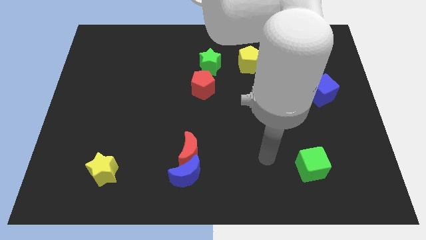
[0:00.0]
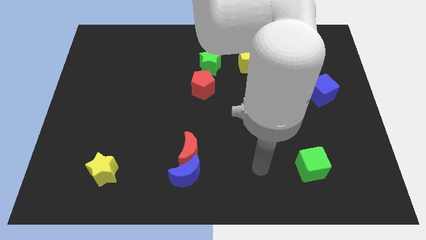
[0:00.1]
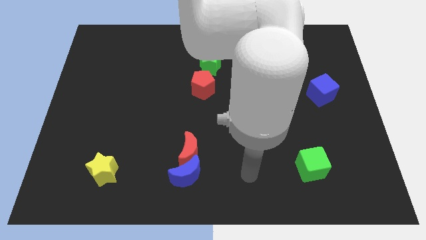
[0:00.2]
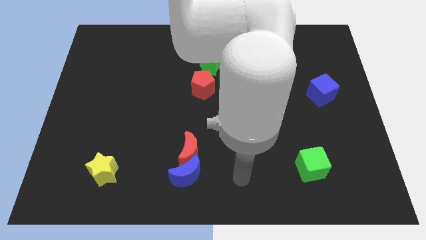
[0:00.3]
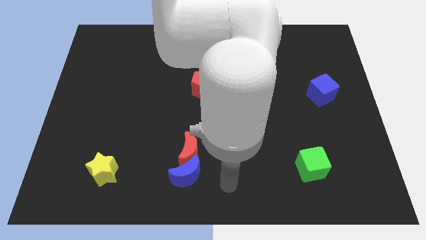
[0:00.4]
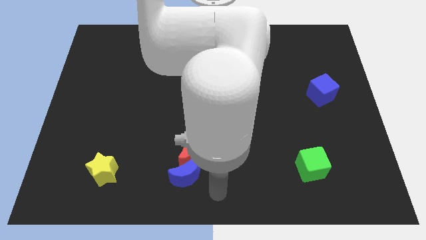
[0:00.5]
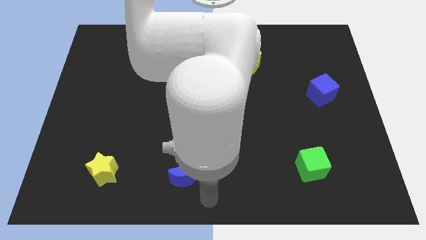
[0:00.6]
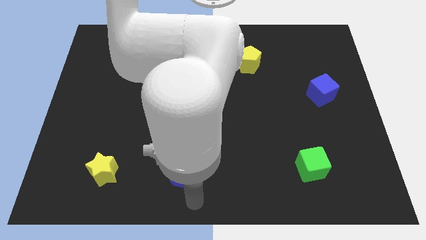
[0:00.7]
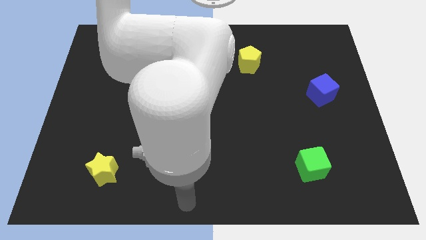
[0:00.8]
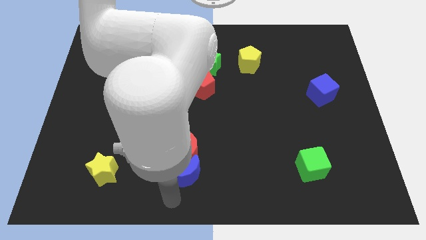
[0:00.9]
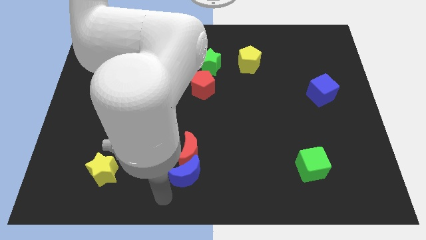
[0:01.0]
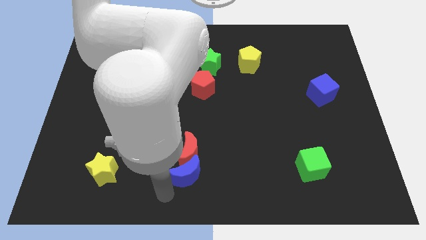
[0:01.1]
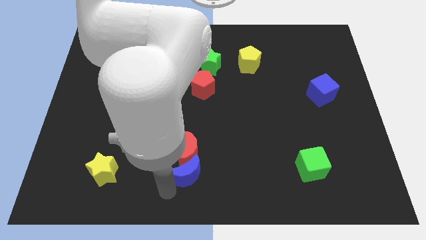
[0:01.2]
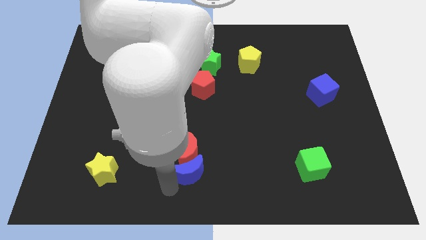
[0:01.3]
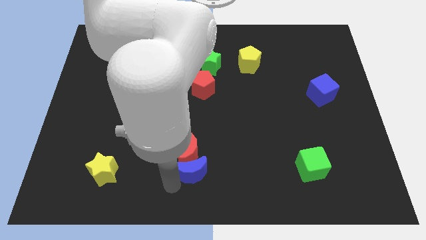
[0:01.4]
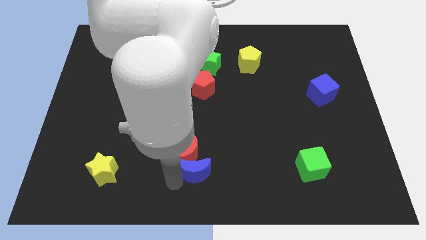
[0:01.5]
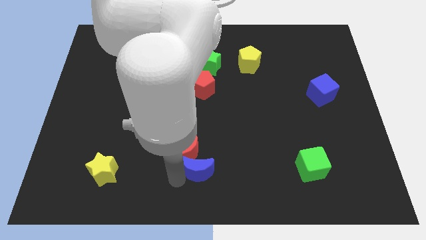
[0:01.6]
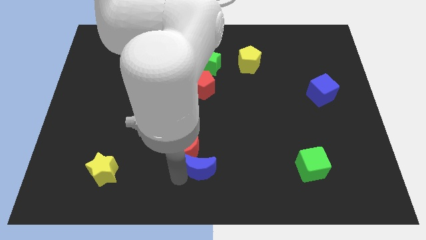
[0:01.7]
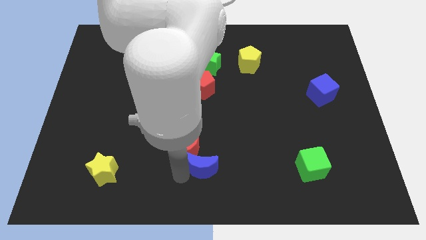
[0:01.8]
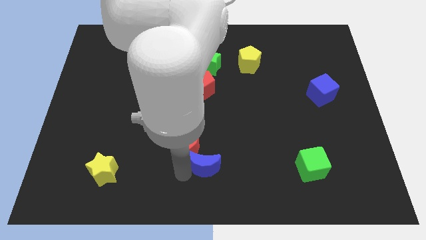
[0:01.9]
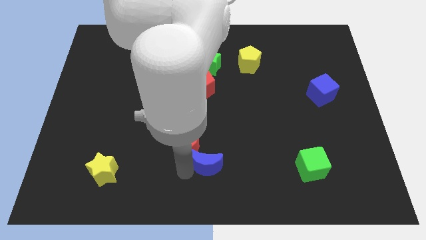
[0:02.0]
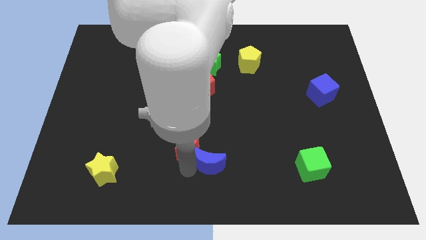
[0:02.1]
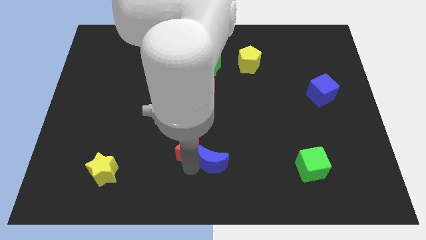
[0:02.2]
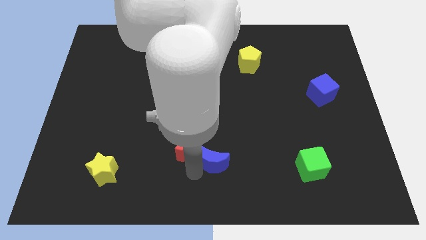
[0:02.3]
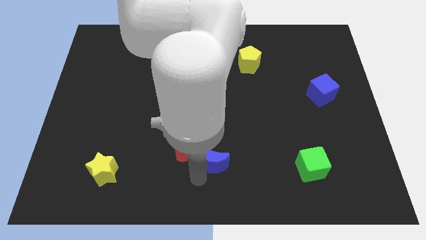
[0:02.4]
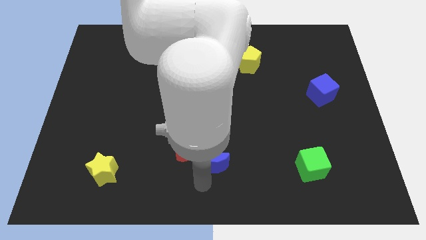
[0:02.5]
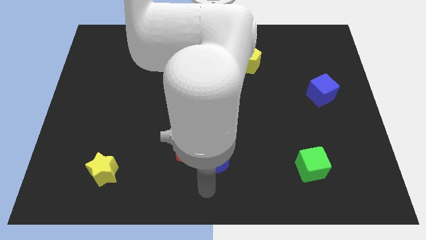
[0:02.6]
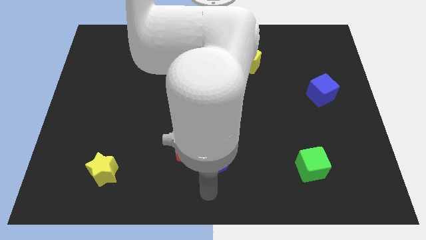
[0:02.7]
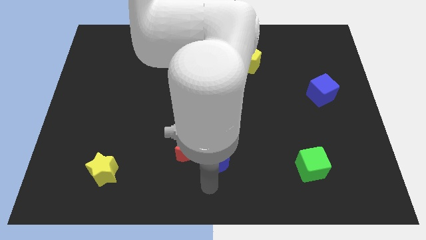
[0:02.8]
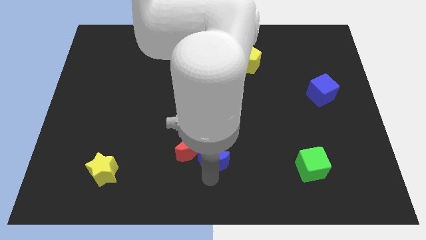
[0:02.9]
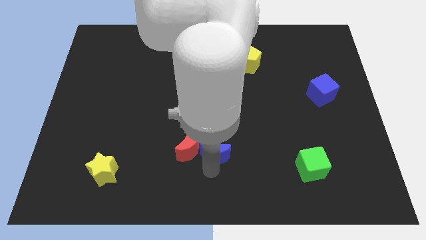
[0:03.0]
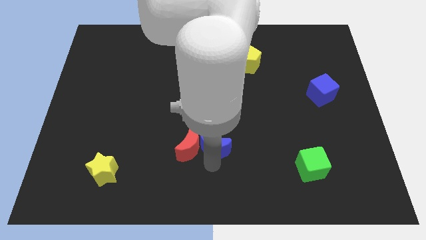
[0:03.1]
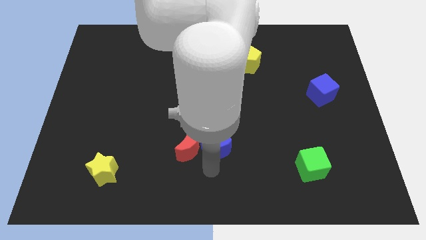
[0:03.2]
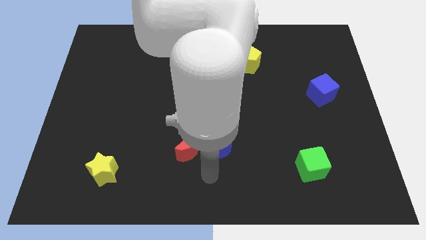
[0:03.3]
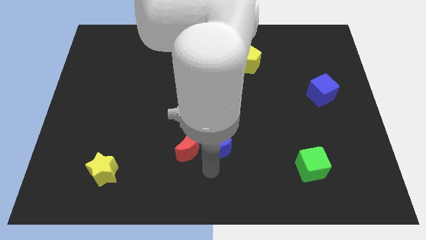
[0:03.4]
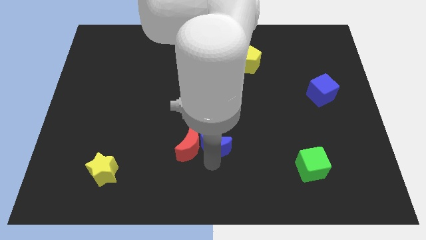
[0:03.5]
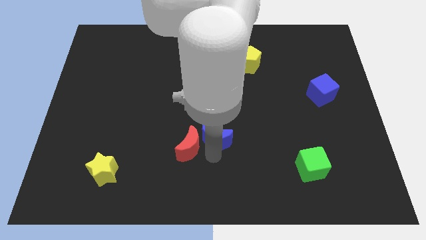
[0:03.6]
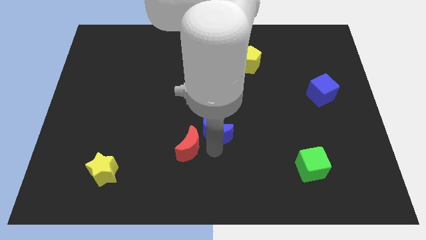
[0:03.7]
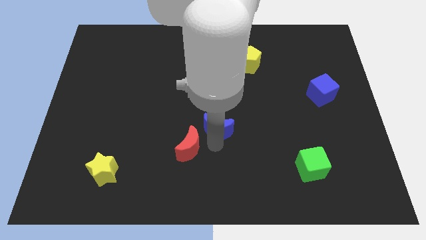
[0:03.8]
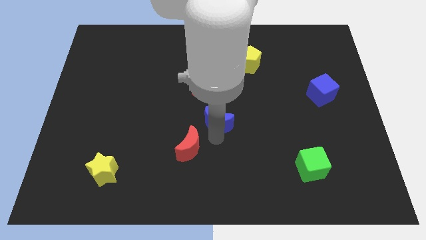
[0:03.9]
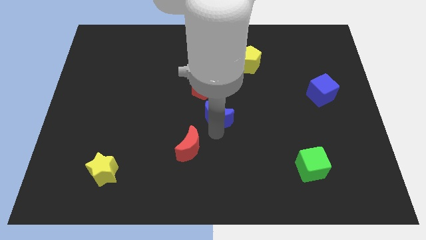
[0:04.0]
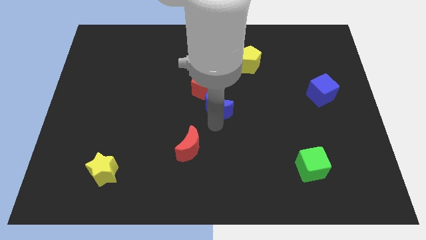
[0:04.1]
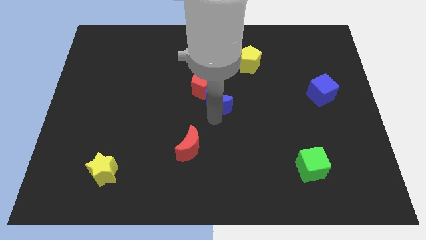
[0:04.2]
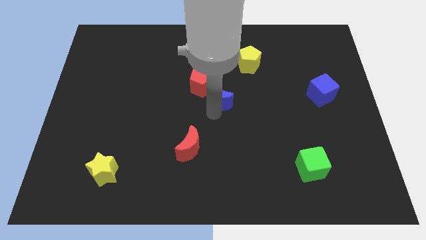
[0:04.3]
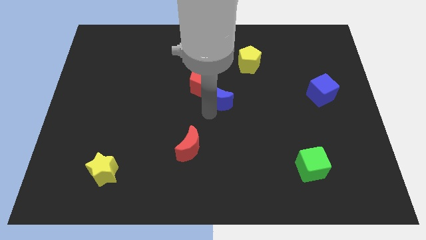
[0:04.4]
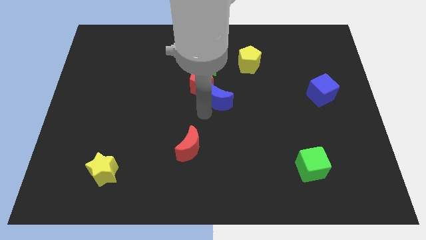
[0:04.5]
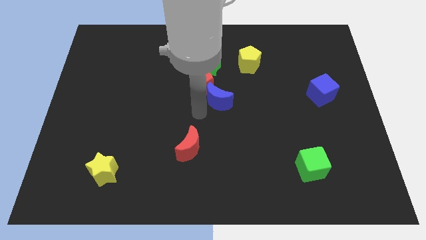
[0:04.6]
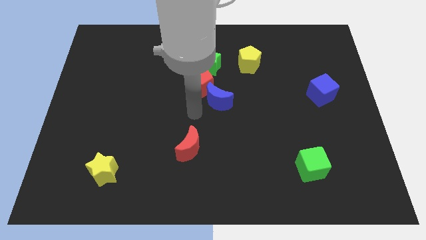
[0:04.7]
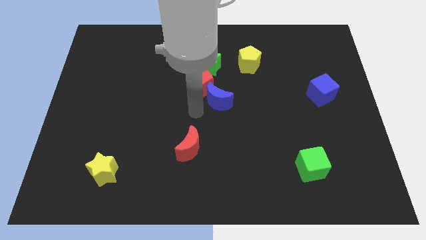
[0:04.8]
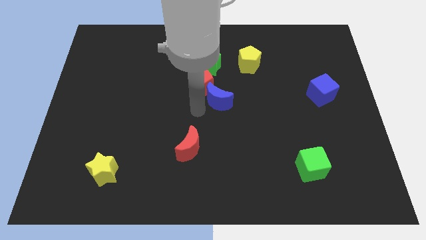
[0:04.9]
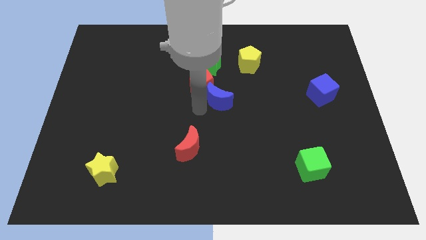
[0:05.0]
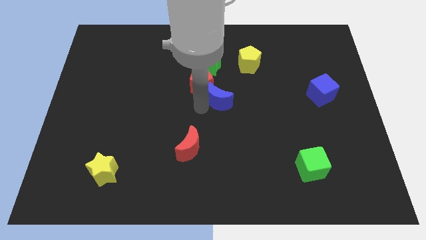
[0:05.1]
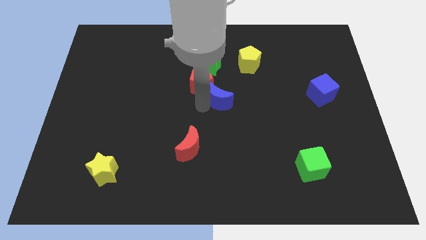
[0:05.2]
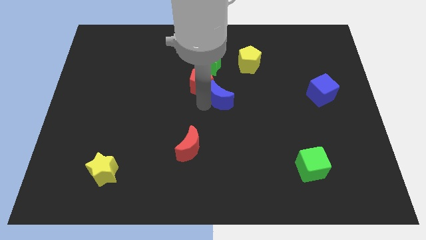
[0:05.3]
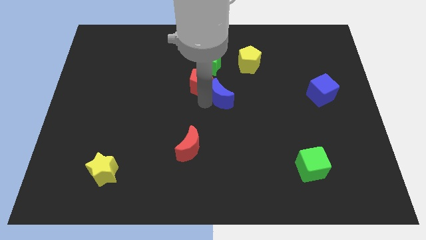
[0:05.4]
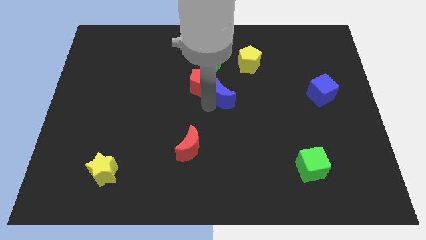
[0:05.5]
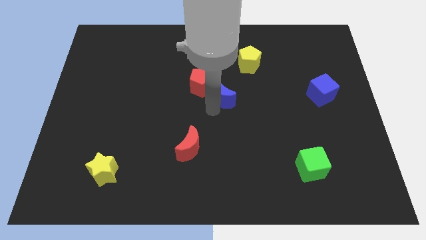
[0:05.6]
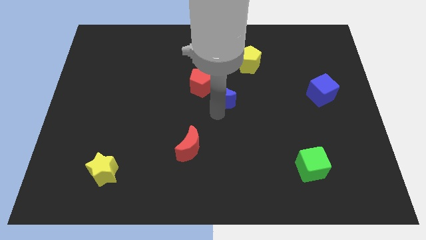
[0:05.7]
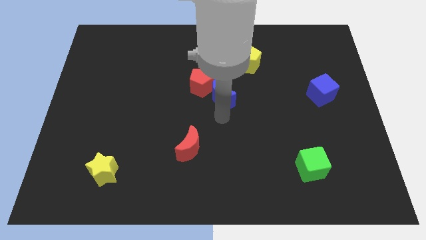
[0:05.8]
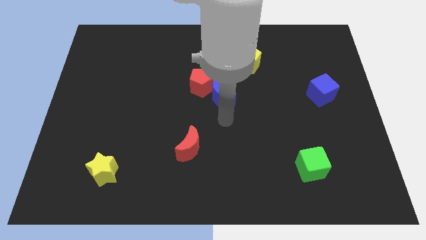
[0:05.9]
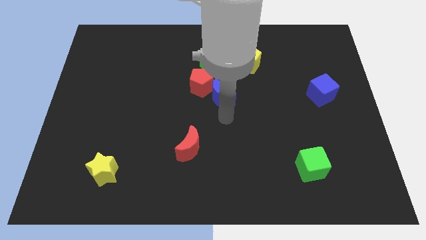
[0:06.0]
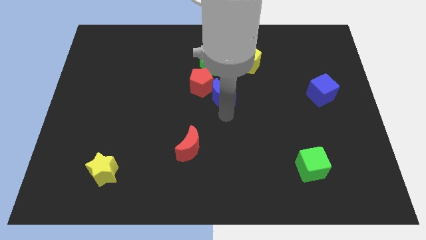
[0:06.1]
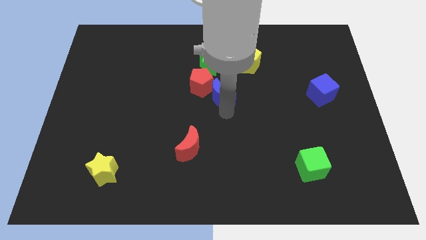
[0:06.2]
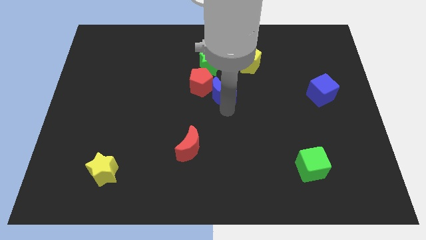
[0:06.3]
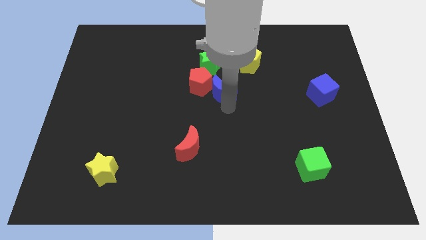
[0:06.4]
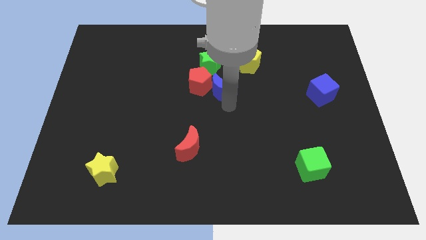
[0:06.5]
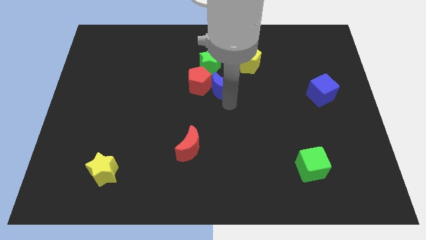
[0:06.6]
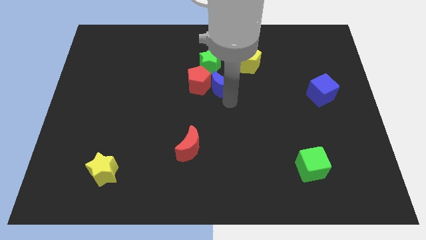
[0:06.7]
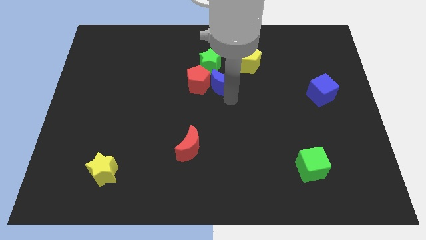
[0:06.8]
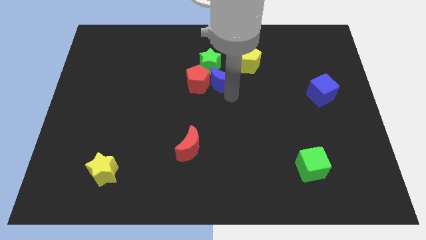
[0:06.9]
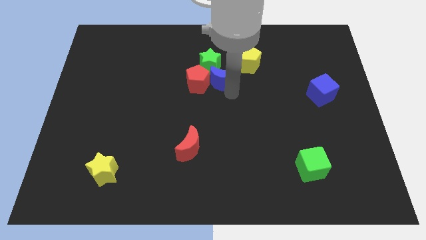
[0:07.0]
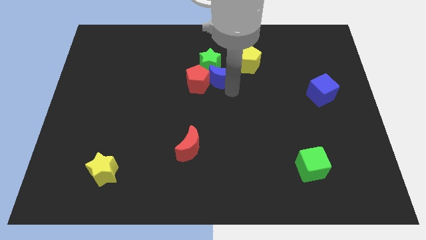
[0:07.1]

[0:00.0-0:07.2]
push the blue moon next to the green star

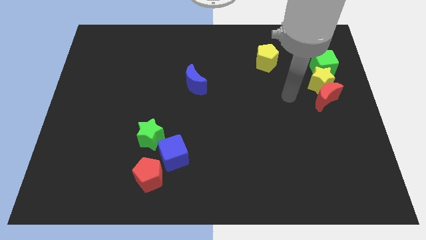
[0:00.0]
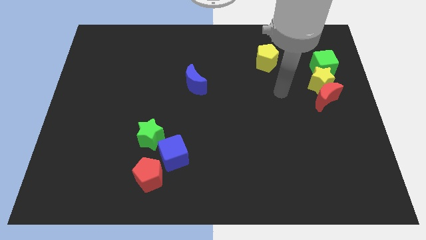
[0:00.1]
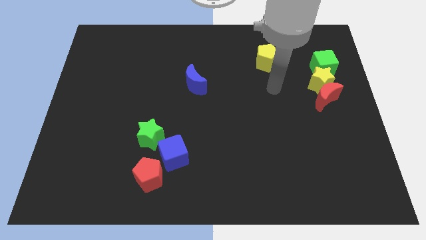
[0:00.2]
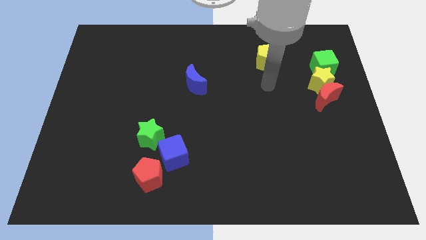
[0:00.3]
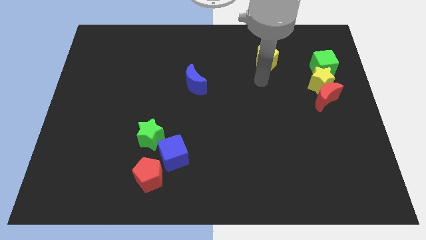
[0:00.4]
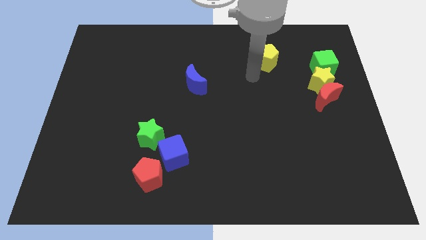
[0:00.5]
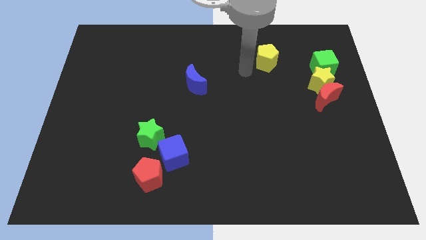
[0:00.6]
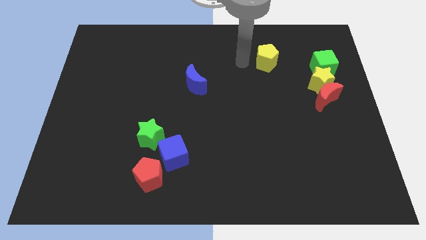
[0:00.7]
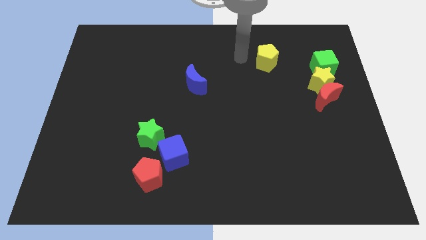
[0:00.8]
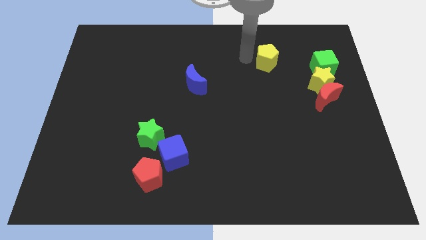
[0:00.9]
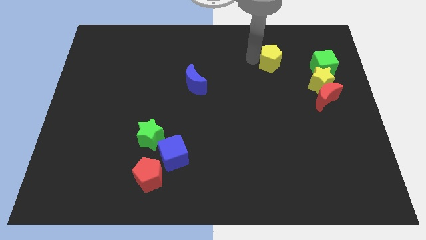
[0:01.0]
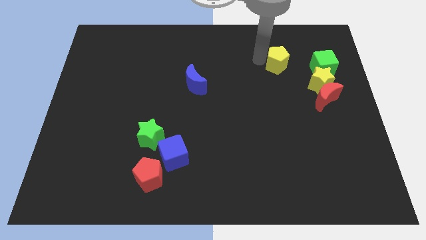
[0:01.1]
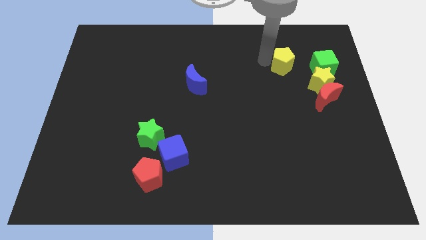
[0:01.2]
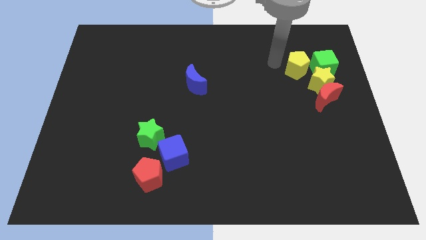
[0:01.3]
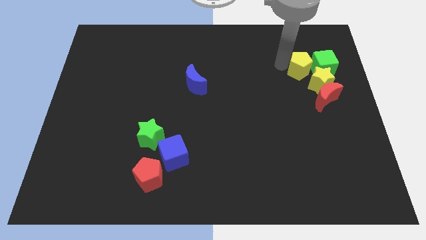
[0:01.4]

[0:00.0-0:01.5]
slide the yellow pentagon close to the green cube
